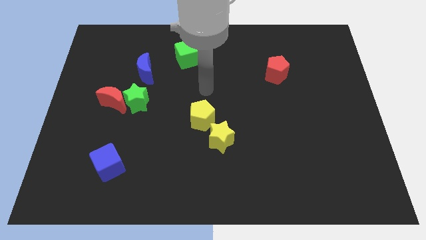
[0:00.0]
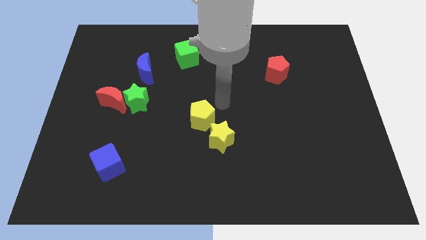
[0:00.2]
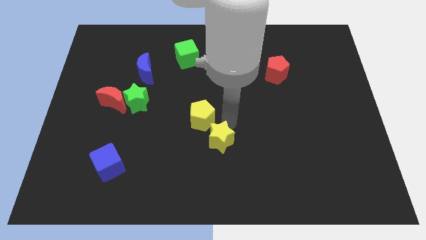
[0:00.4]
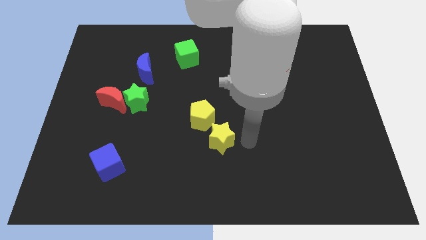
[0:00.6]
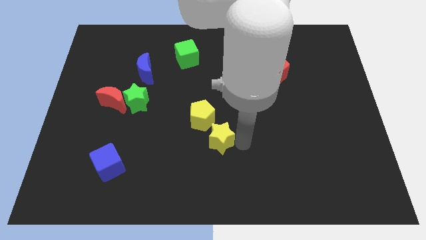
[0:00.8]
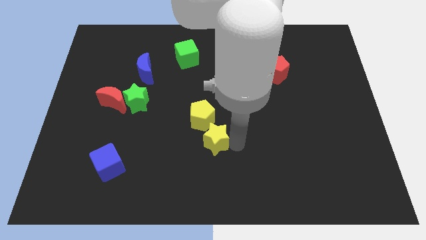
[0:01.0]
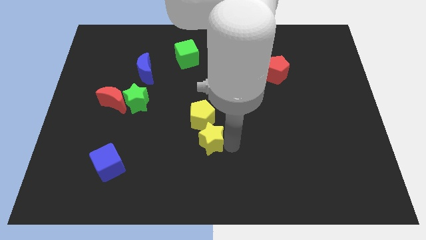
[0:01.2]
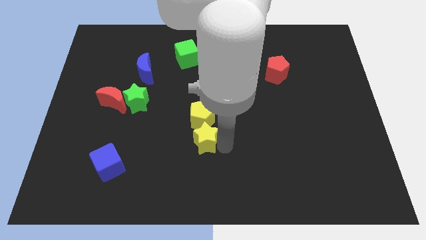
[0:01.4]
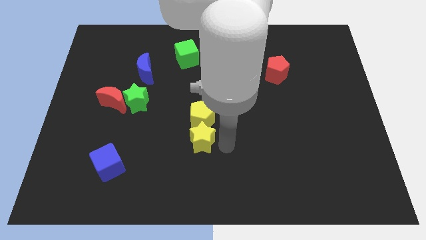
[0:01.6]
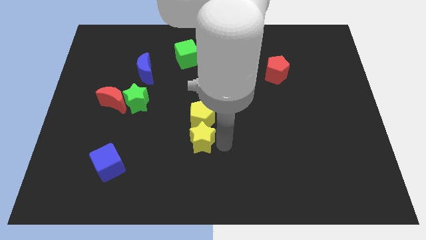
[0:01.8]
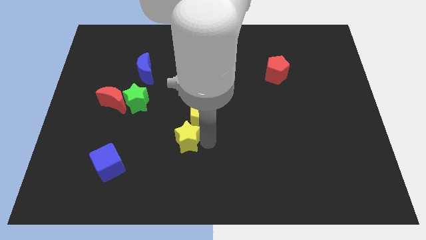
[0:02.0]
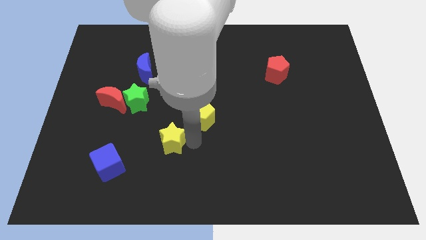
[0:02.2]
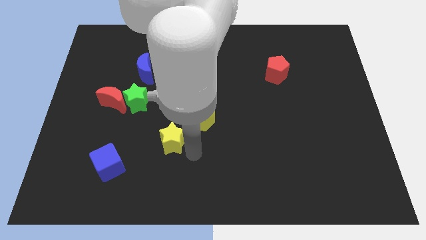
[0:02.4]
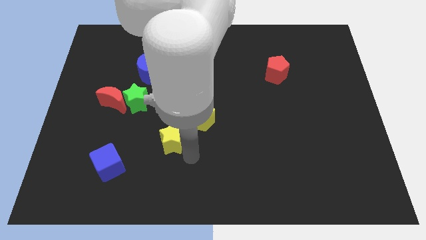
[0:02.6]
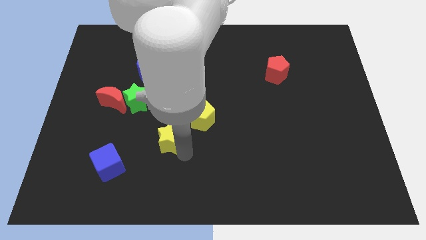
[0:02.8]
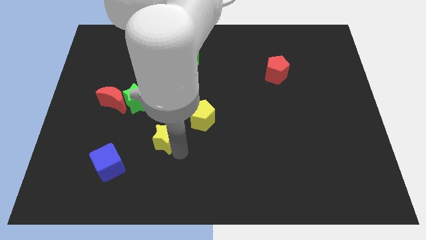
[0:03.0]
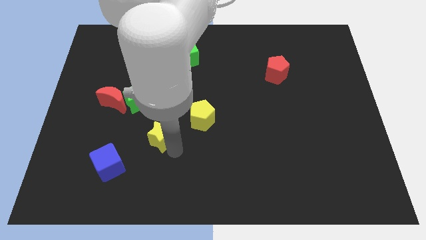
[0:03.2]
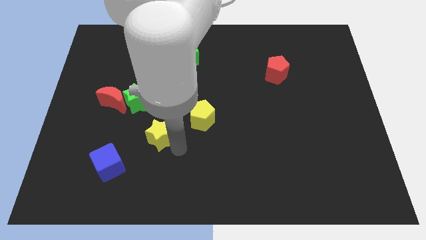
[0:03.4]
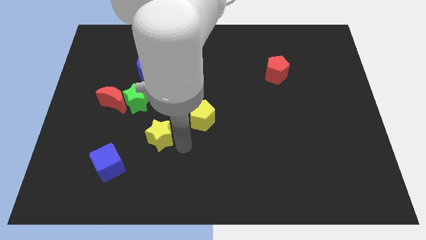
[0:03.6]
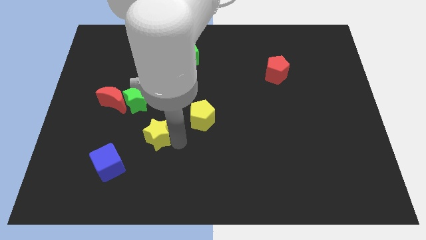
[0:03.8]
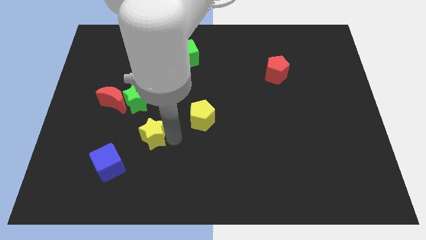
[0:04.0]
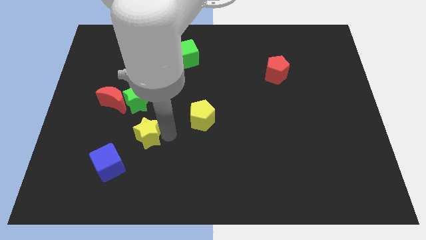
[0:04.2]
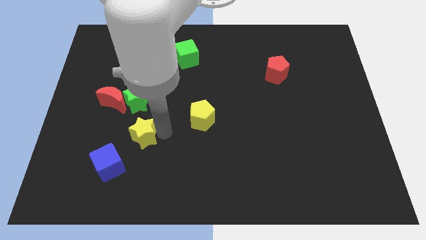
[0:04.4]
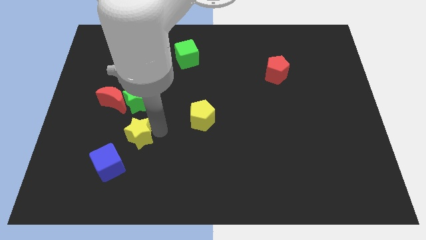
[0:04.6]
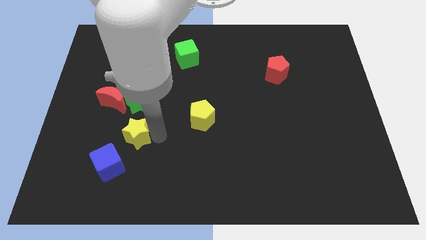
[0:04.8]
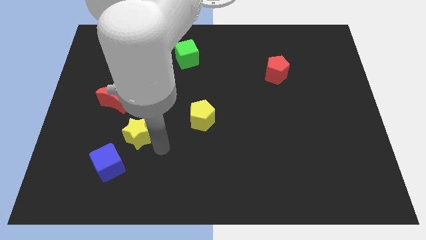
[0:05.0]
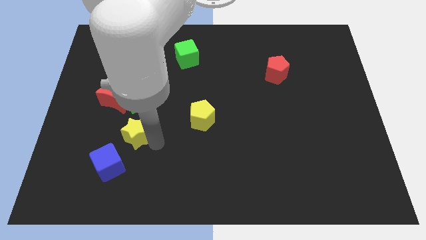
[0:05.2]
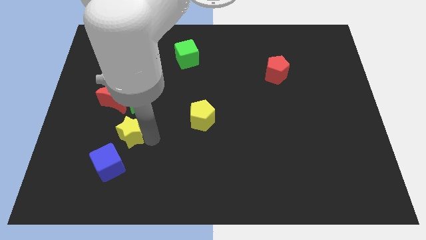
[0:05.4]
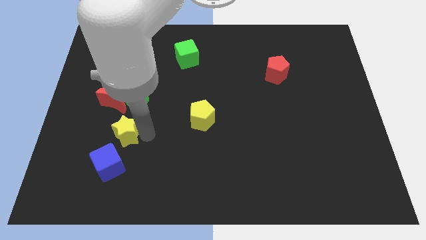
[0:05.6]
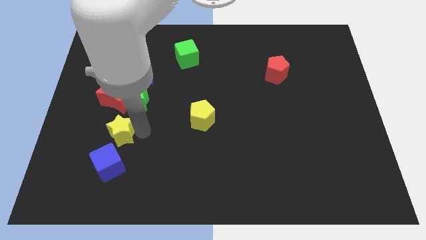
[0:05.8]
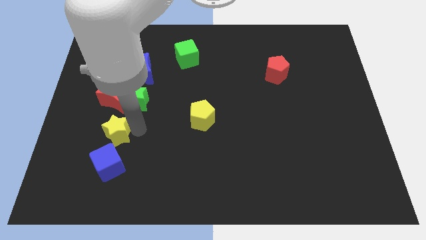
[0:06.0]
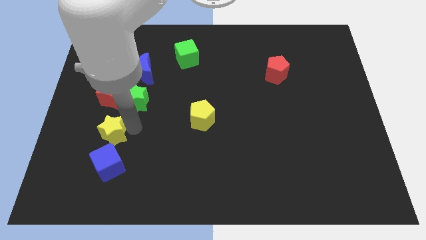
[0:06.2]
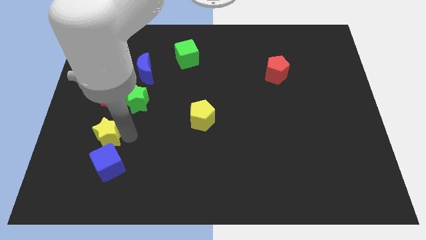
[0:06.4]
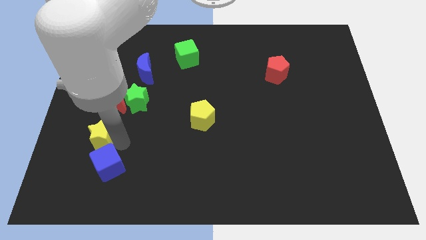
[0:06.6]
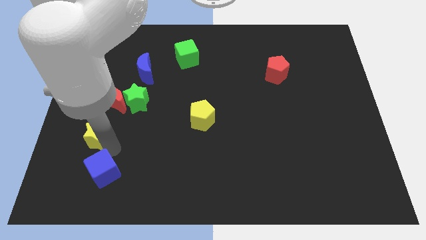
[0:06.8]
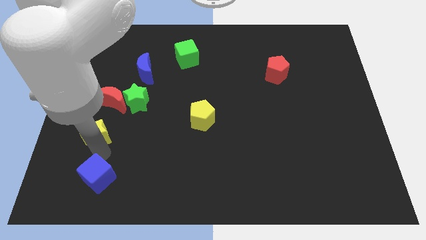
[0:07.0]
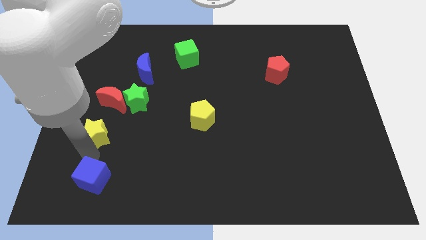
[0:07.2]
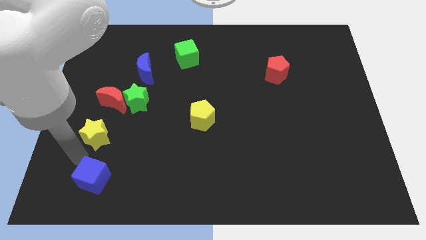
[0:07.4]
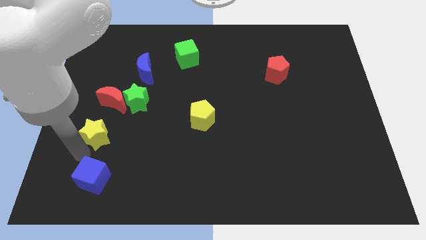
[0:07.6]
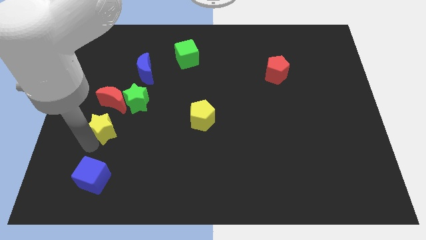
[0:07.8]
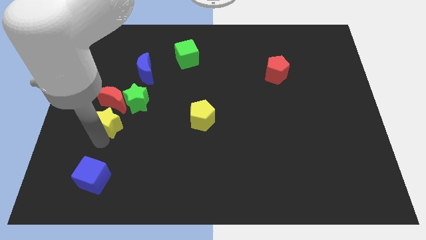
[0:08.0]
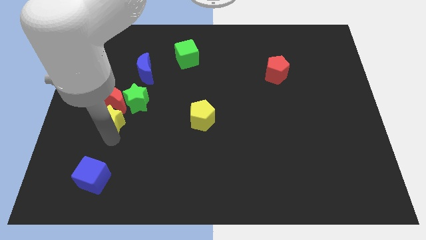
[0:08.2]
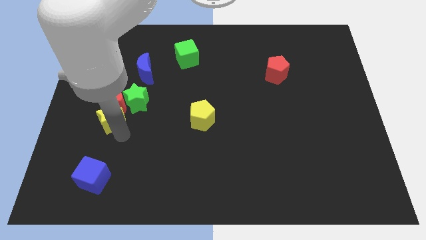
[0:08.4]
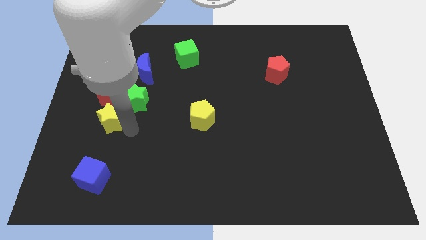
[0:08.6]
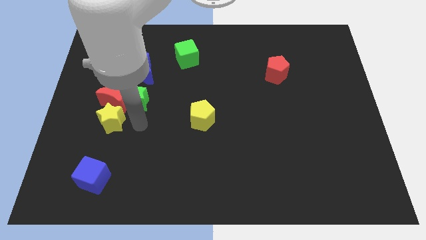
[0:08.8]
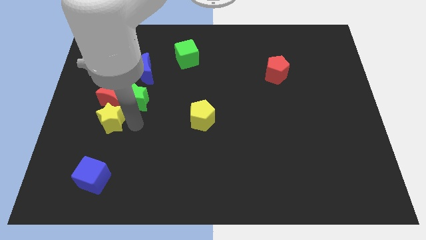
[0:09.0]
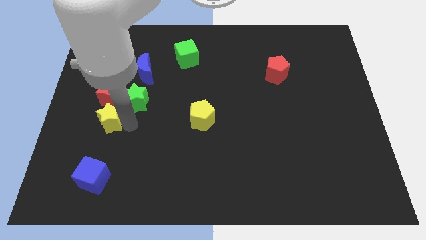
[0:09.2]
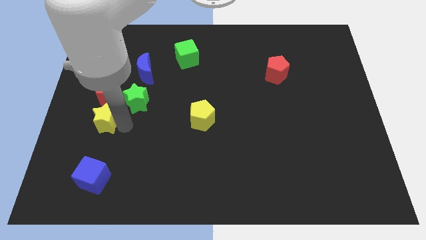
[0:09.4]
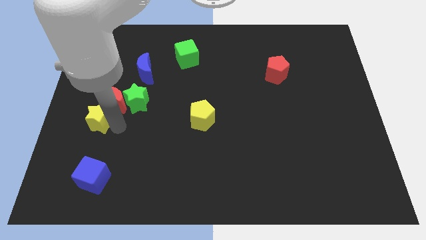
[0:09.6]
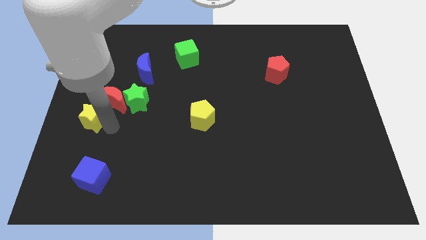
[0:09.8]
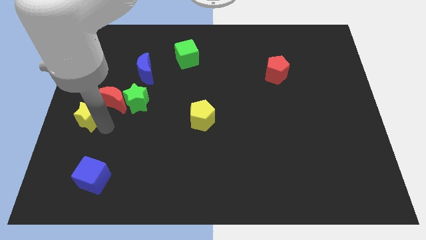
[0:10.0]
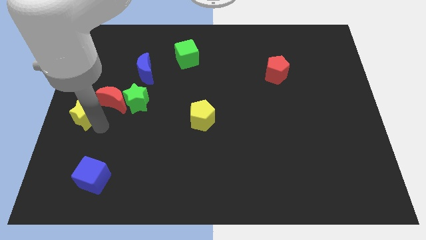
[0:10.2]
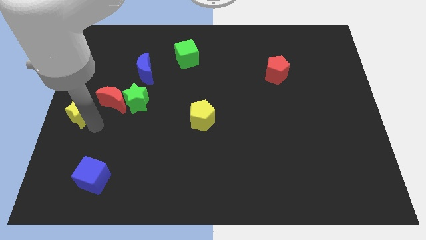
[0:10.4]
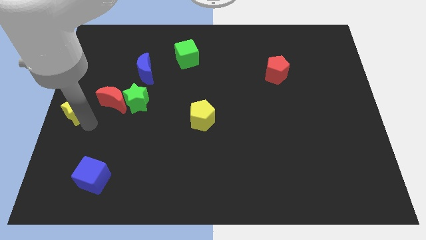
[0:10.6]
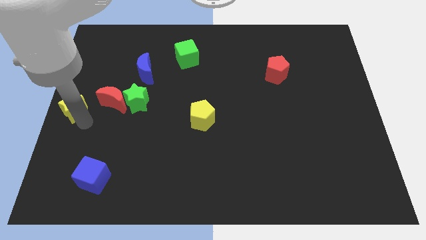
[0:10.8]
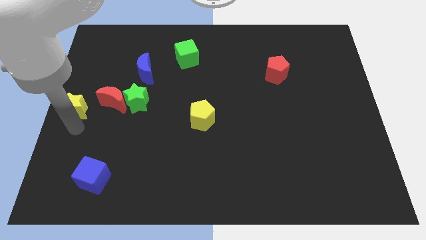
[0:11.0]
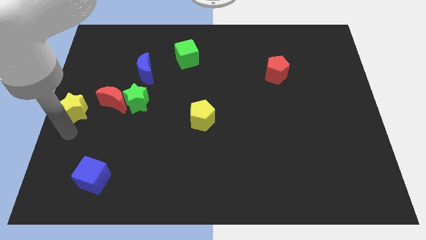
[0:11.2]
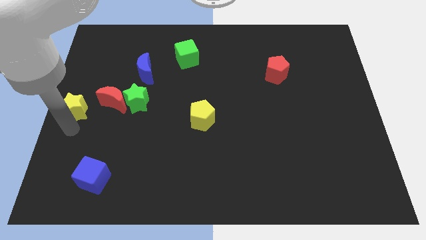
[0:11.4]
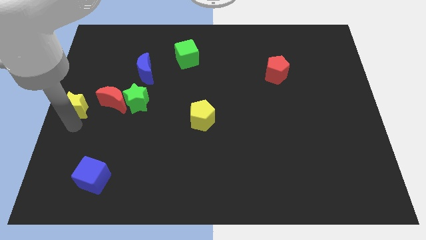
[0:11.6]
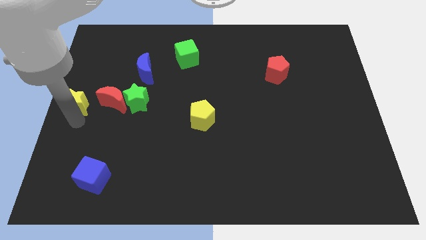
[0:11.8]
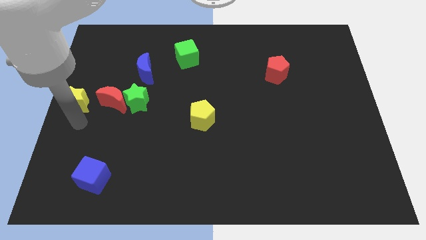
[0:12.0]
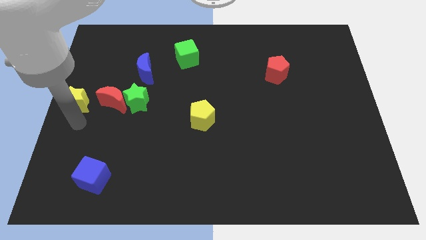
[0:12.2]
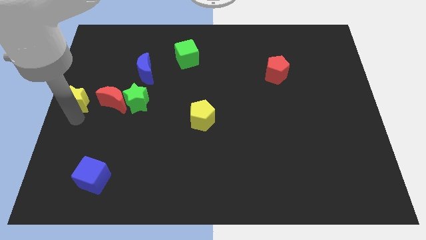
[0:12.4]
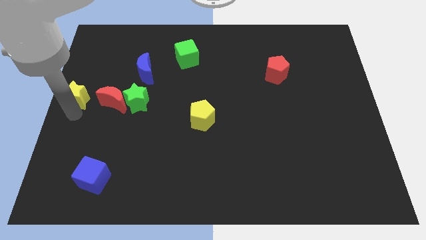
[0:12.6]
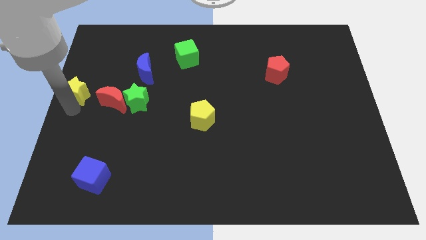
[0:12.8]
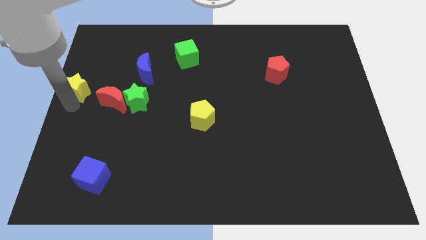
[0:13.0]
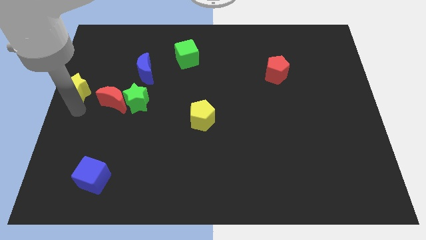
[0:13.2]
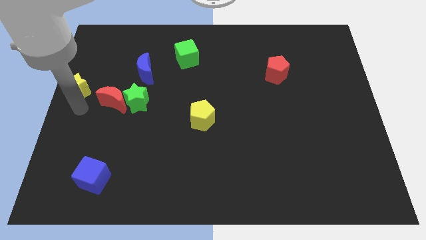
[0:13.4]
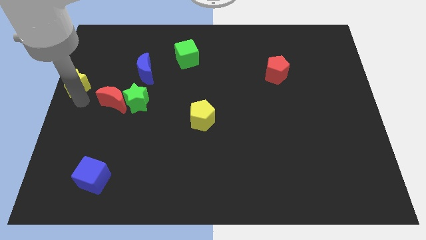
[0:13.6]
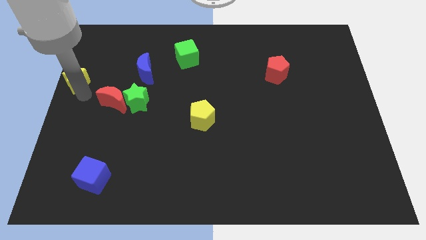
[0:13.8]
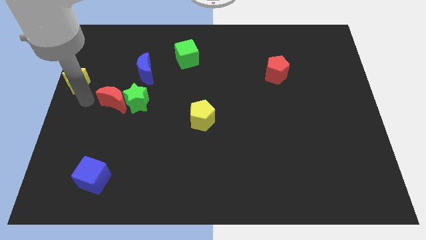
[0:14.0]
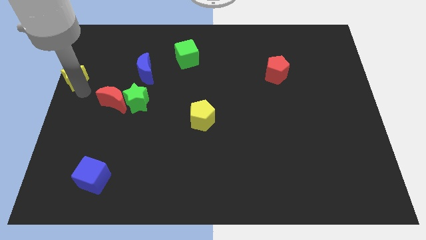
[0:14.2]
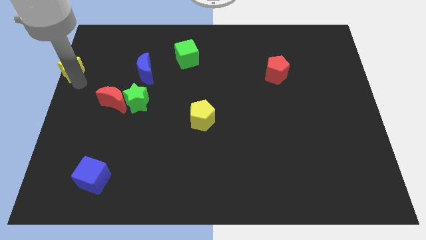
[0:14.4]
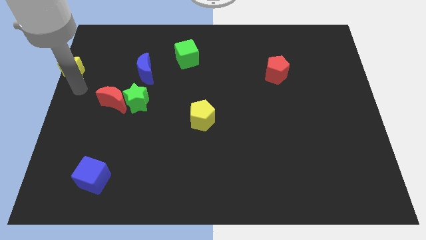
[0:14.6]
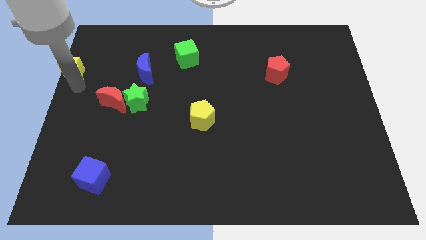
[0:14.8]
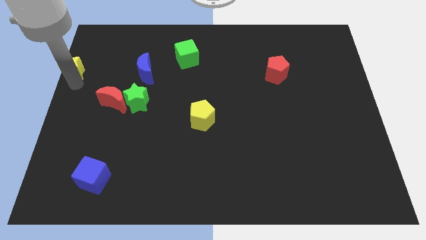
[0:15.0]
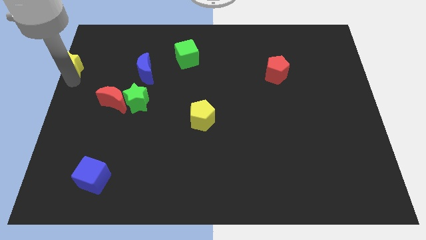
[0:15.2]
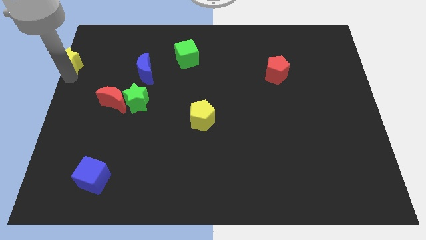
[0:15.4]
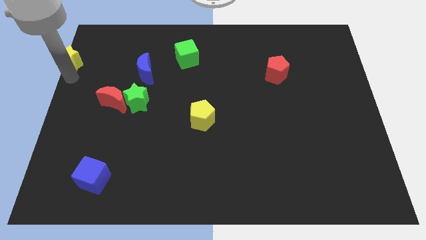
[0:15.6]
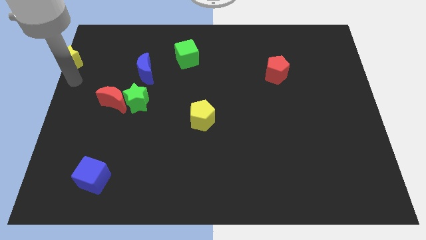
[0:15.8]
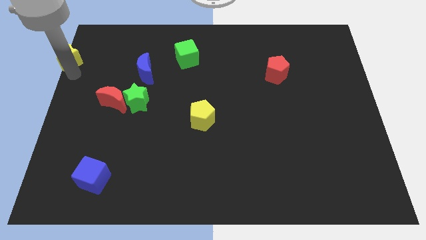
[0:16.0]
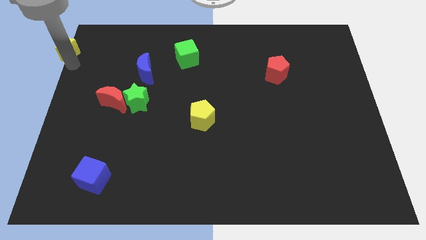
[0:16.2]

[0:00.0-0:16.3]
slide the yellow star to the top left
